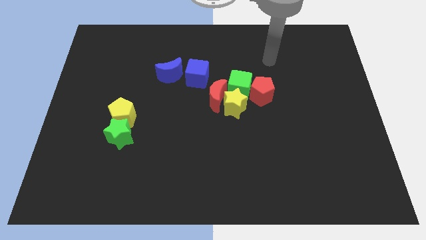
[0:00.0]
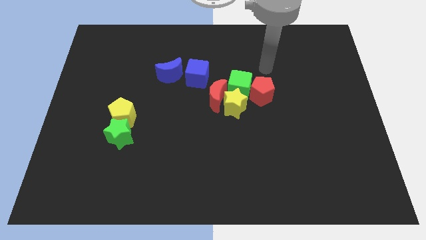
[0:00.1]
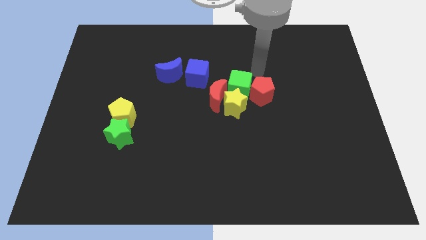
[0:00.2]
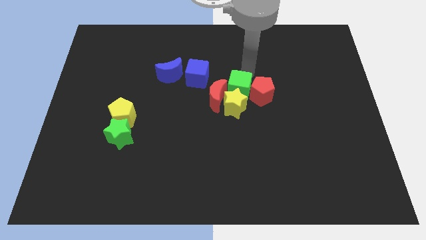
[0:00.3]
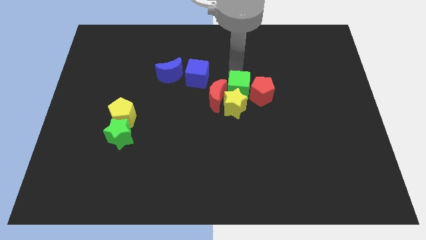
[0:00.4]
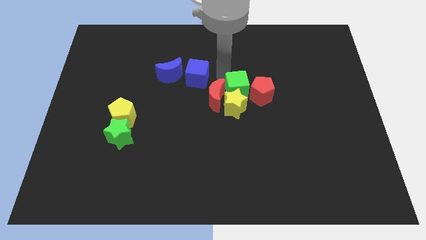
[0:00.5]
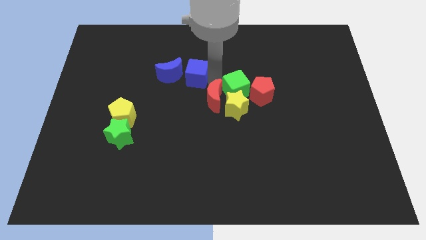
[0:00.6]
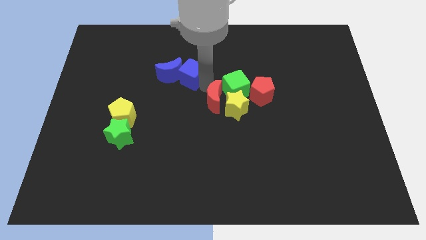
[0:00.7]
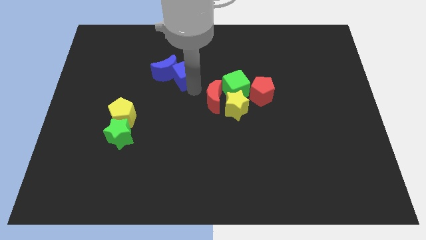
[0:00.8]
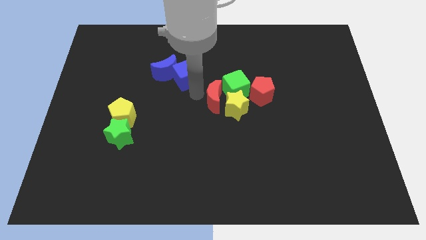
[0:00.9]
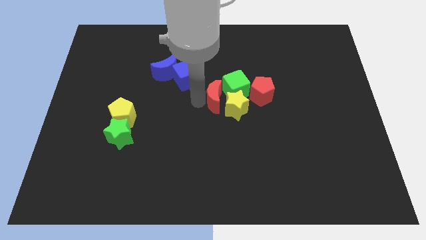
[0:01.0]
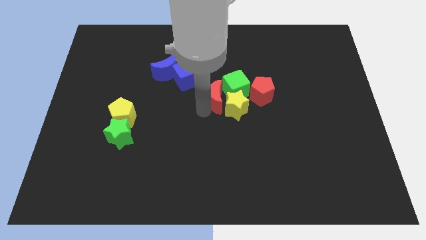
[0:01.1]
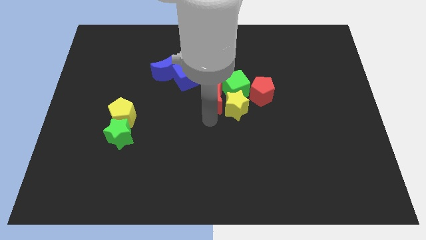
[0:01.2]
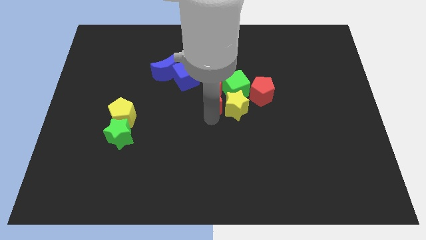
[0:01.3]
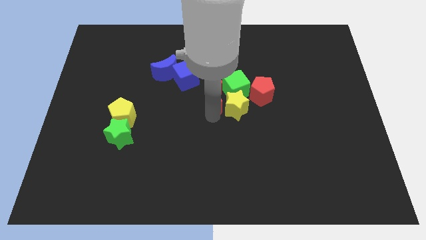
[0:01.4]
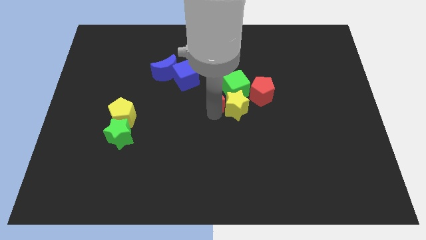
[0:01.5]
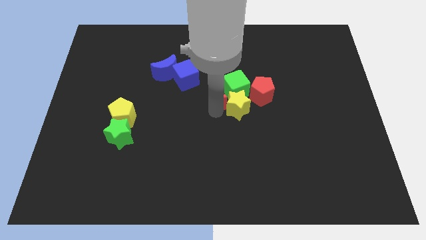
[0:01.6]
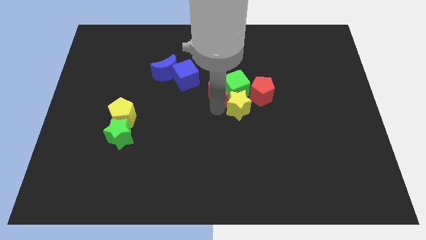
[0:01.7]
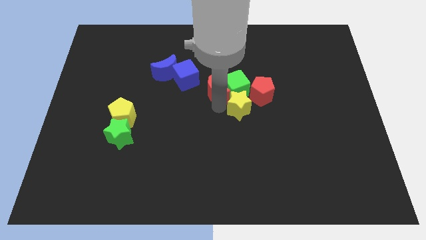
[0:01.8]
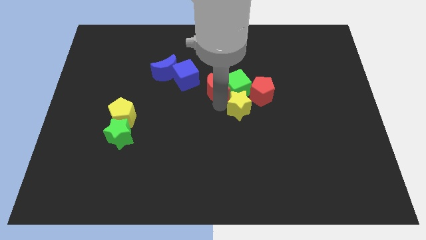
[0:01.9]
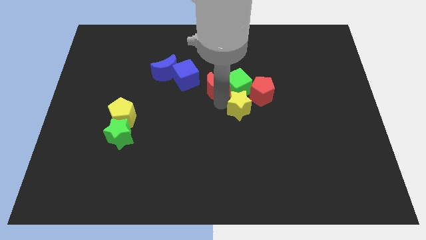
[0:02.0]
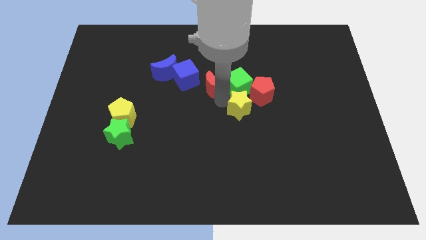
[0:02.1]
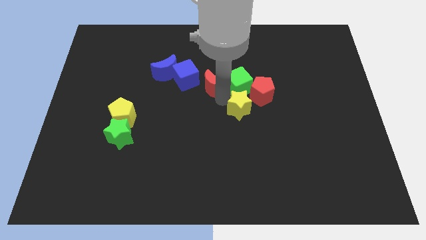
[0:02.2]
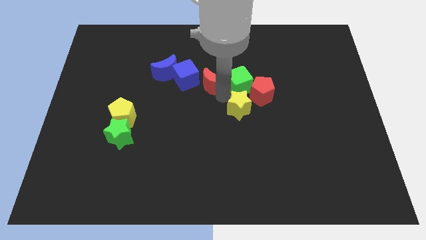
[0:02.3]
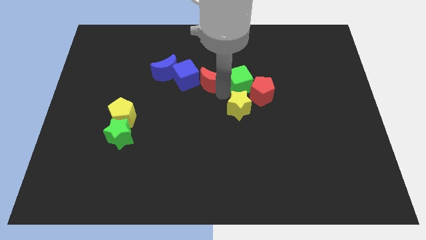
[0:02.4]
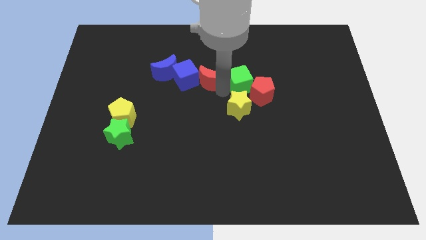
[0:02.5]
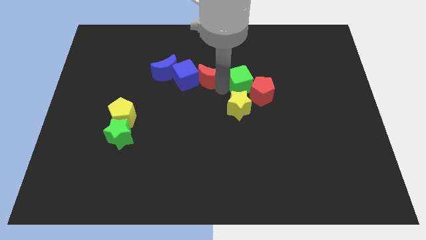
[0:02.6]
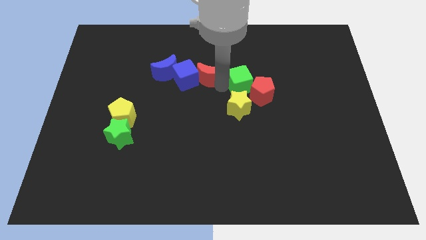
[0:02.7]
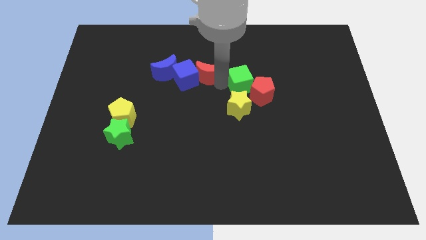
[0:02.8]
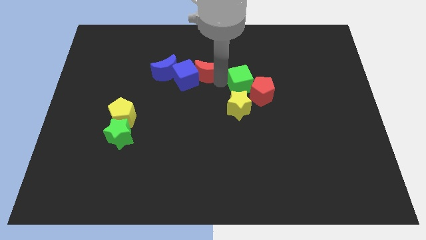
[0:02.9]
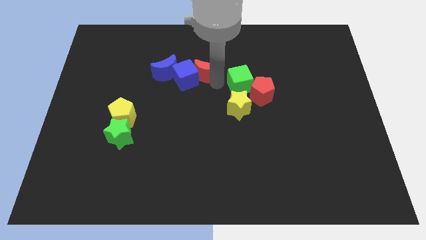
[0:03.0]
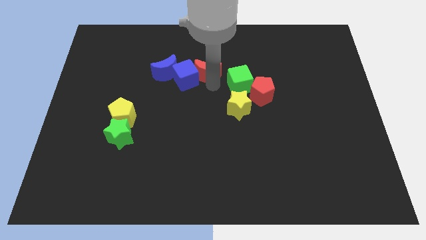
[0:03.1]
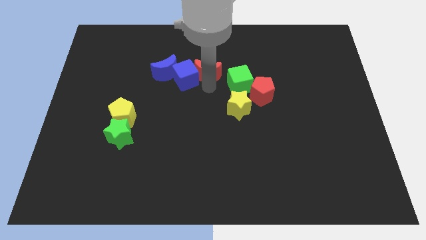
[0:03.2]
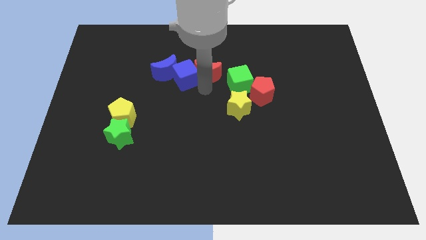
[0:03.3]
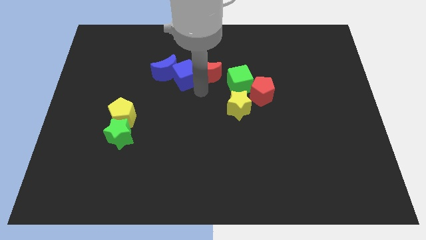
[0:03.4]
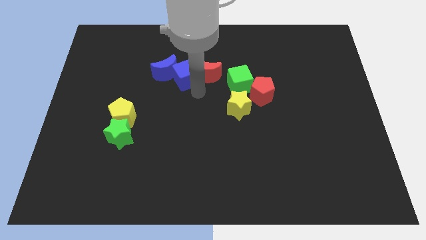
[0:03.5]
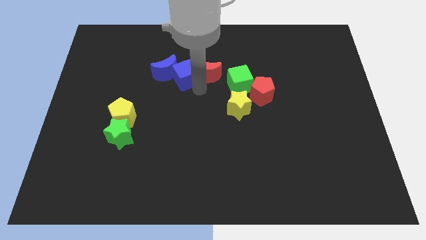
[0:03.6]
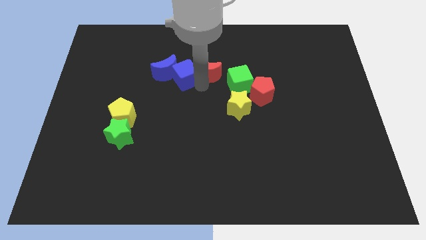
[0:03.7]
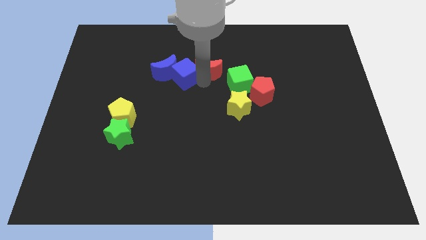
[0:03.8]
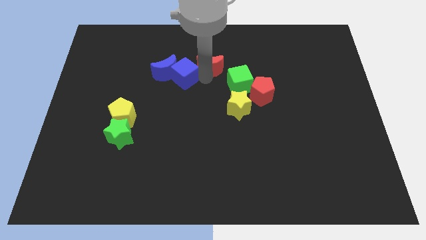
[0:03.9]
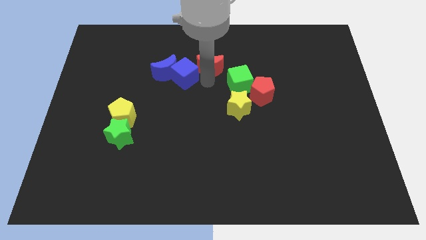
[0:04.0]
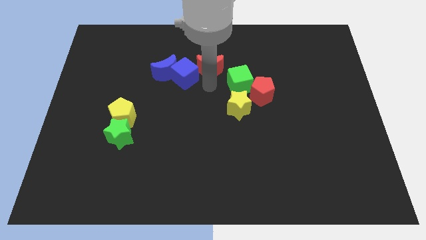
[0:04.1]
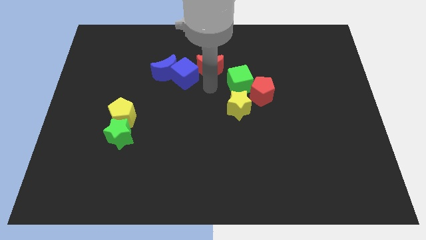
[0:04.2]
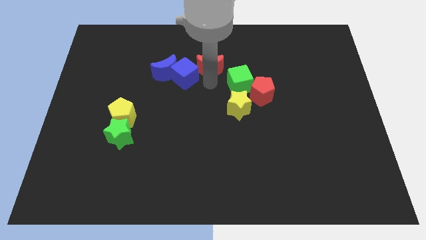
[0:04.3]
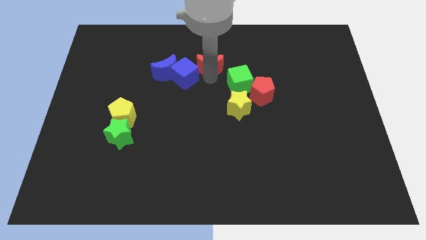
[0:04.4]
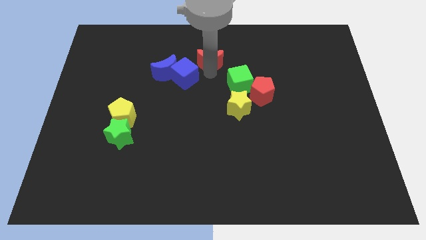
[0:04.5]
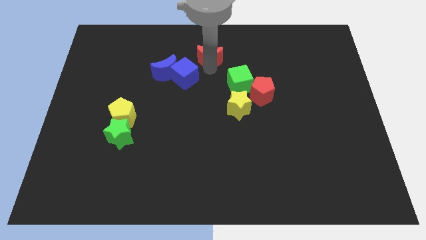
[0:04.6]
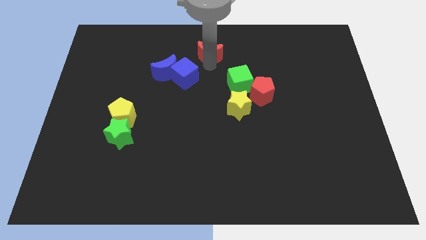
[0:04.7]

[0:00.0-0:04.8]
push the red moon to the towards your base

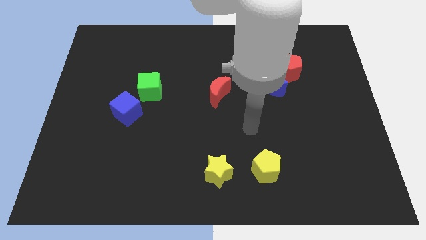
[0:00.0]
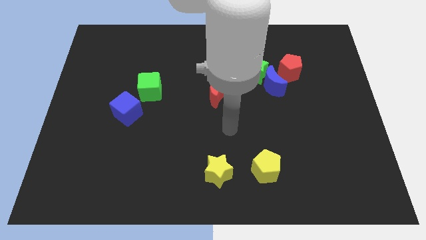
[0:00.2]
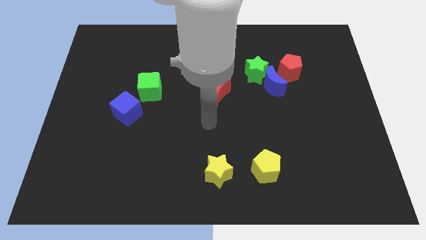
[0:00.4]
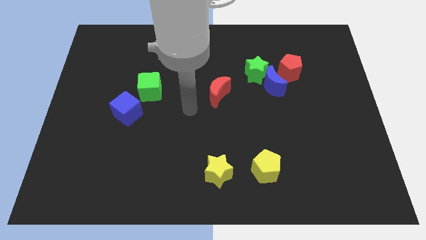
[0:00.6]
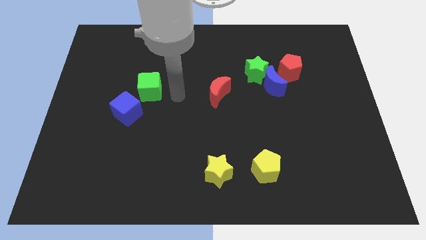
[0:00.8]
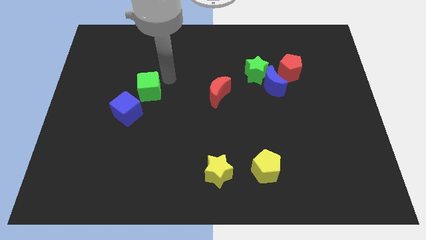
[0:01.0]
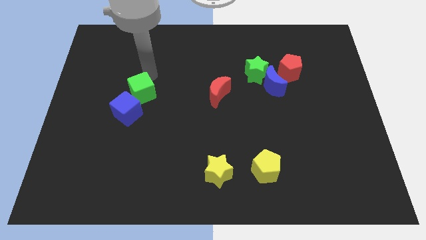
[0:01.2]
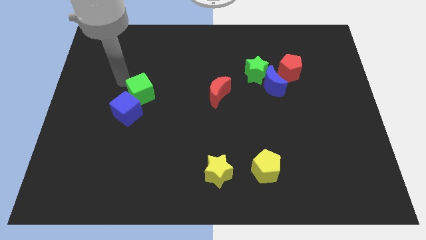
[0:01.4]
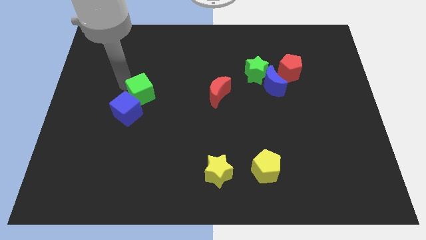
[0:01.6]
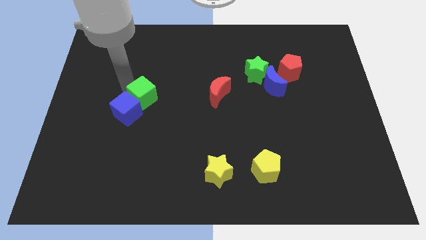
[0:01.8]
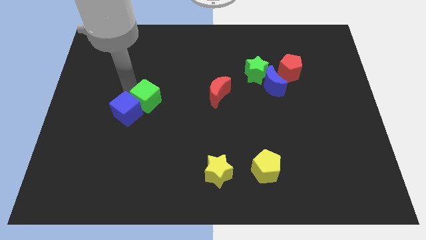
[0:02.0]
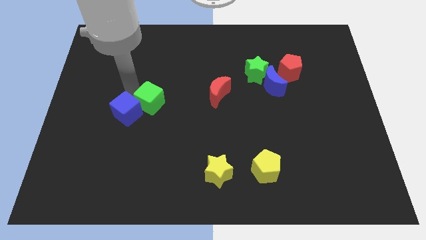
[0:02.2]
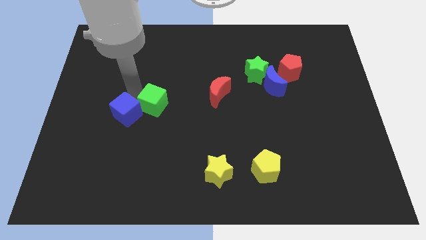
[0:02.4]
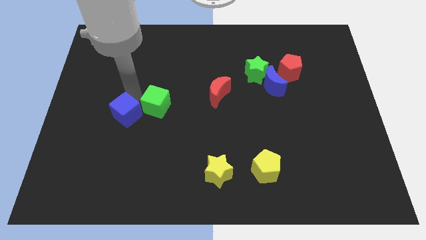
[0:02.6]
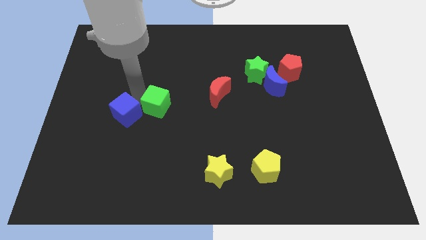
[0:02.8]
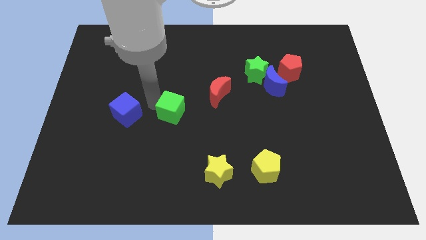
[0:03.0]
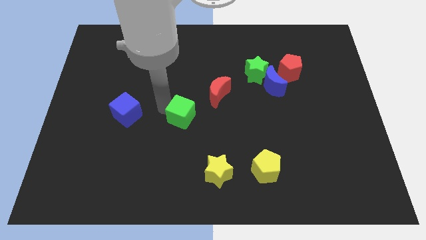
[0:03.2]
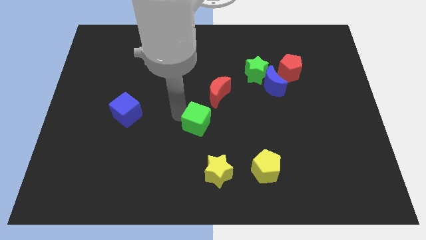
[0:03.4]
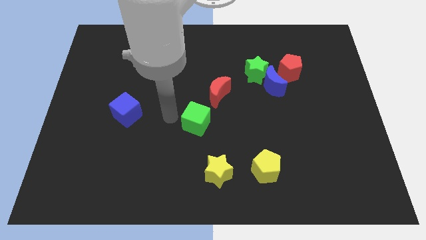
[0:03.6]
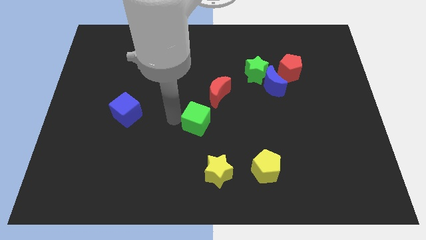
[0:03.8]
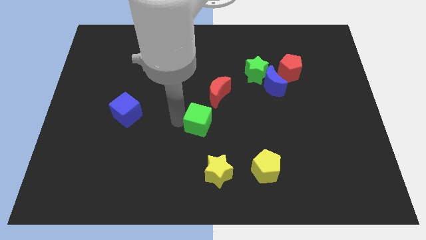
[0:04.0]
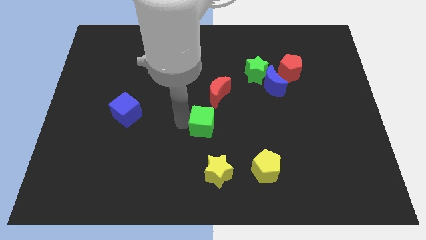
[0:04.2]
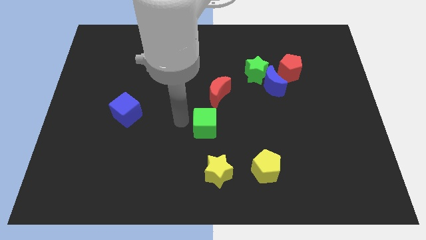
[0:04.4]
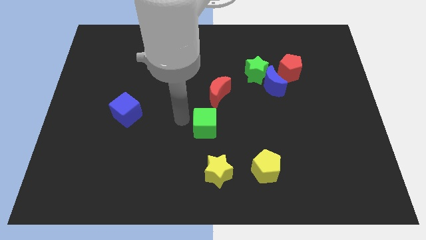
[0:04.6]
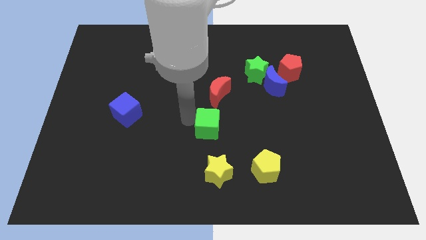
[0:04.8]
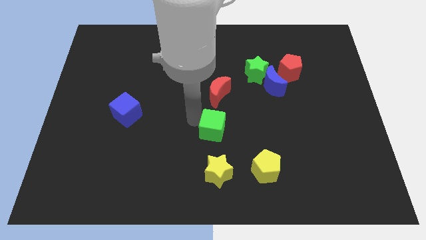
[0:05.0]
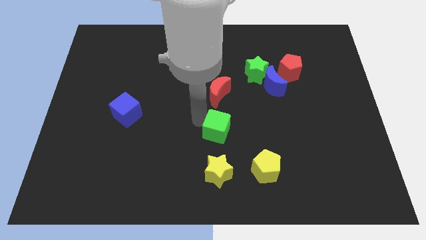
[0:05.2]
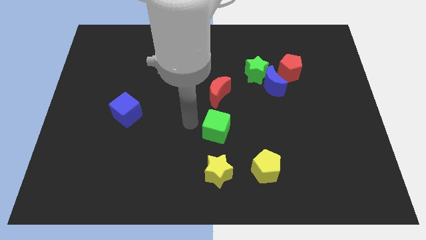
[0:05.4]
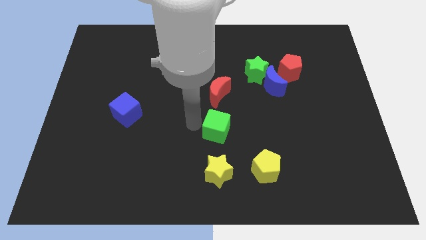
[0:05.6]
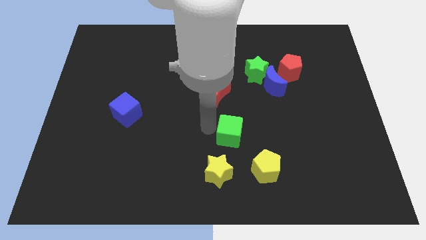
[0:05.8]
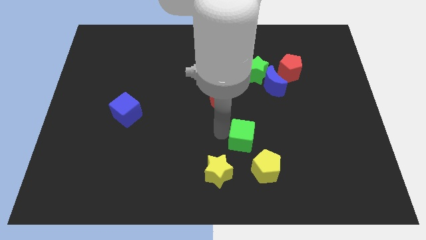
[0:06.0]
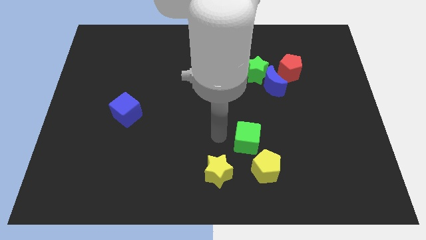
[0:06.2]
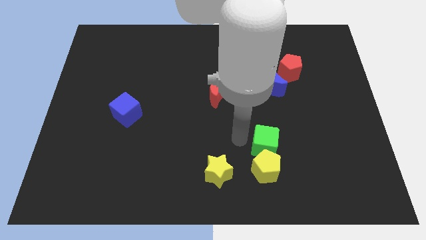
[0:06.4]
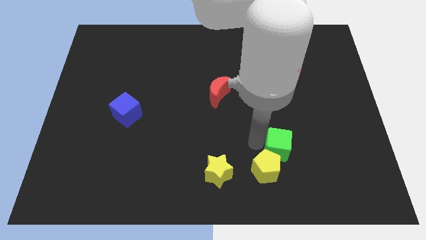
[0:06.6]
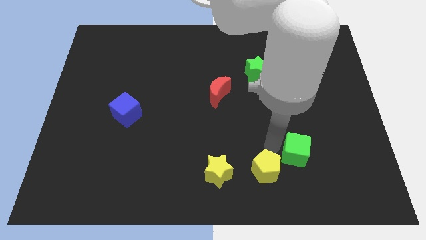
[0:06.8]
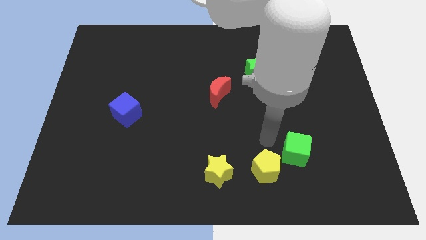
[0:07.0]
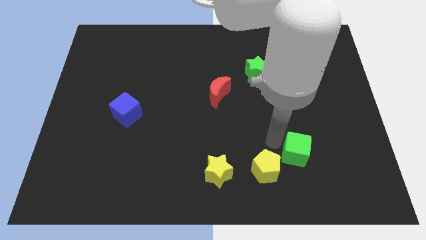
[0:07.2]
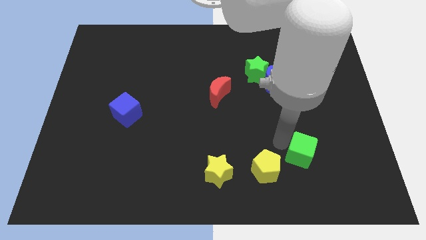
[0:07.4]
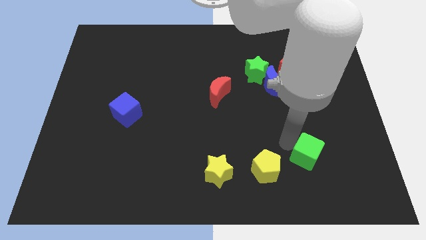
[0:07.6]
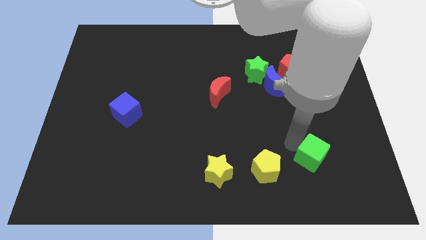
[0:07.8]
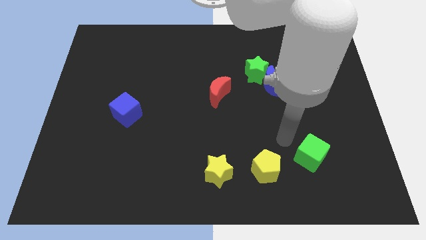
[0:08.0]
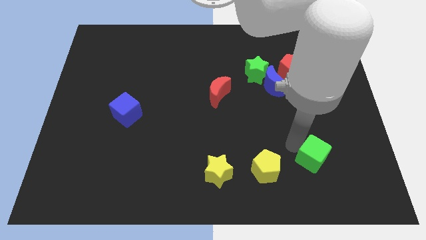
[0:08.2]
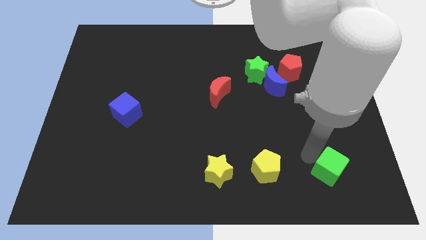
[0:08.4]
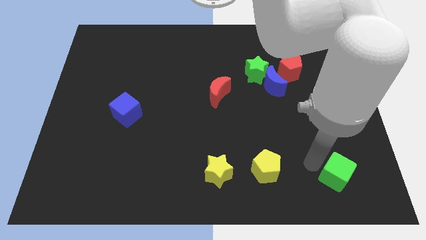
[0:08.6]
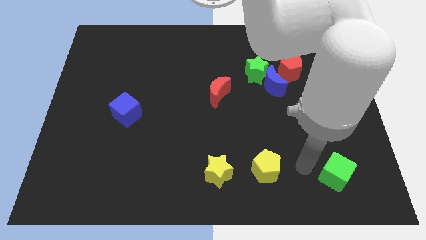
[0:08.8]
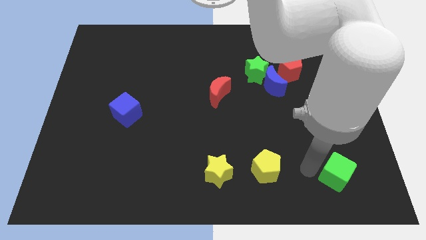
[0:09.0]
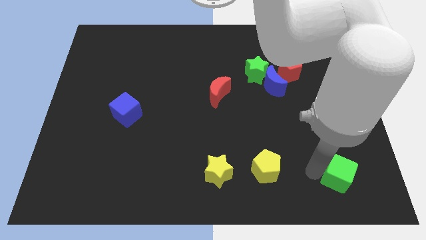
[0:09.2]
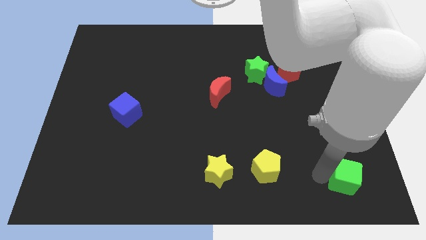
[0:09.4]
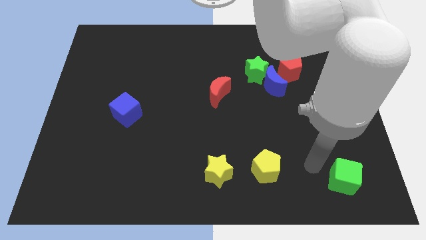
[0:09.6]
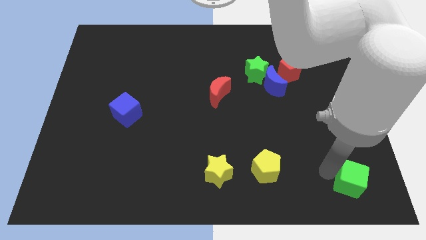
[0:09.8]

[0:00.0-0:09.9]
move the green cube to the bottom right corner
